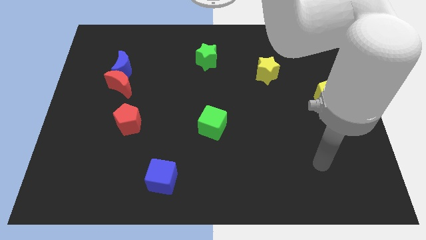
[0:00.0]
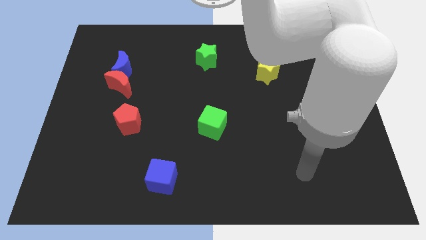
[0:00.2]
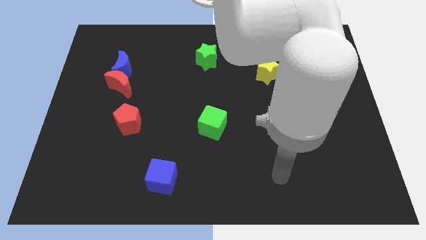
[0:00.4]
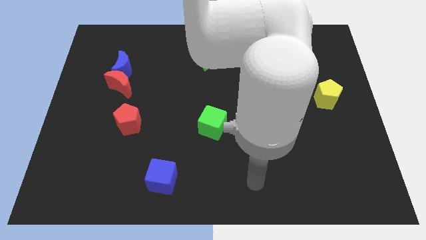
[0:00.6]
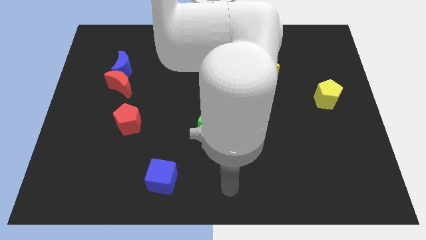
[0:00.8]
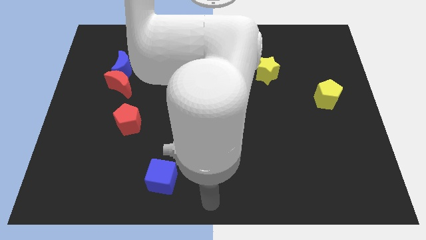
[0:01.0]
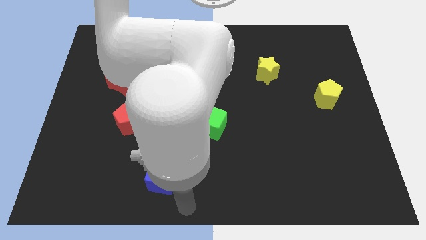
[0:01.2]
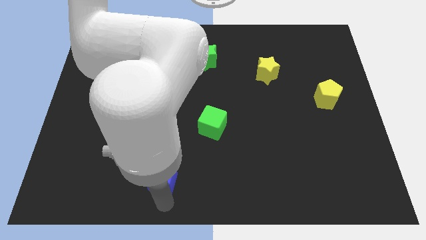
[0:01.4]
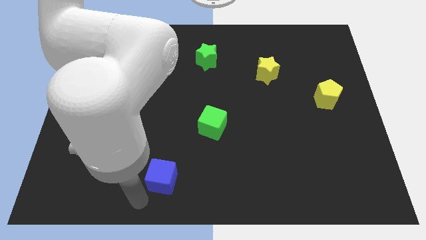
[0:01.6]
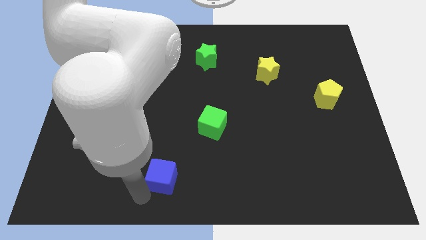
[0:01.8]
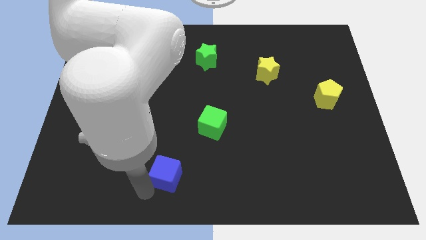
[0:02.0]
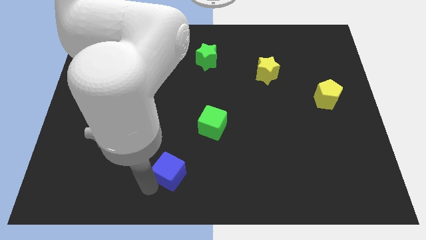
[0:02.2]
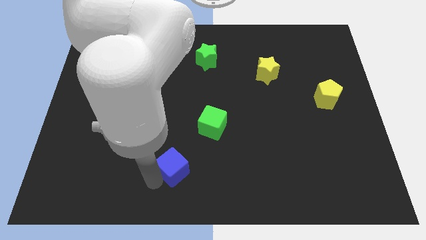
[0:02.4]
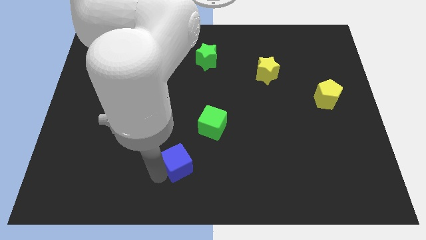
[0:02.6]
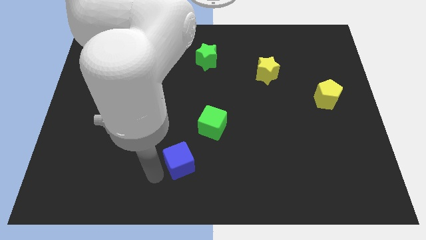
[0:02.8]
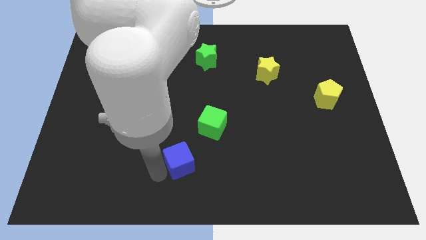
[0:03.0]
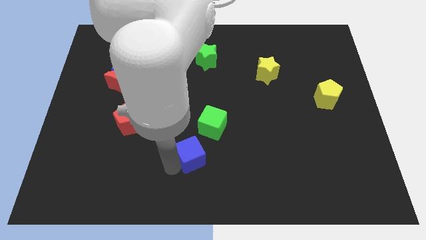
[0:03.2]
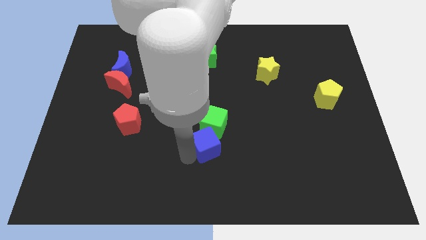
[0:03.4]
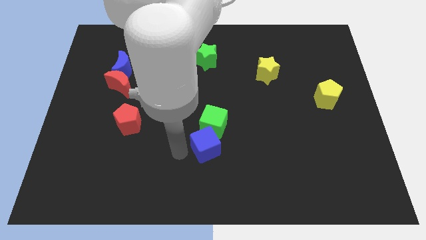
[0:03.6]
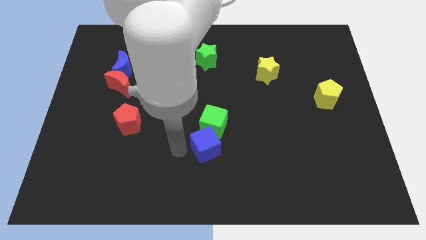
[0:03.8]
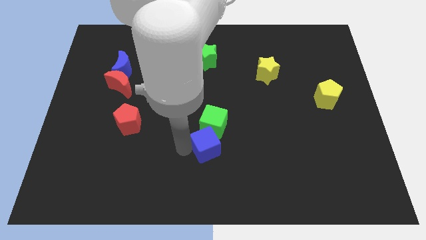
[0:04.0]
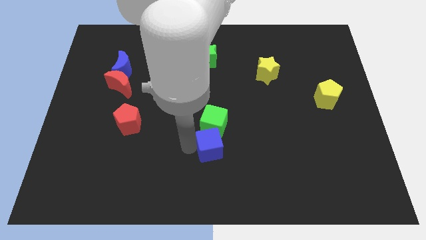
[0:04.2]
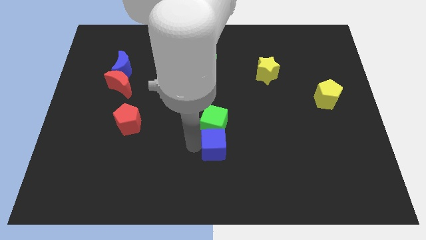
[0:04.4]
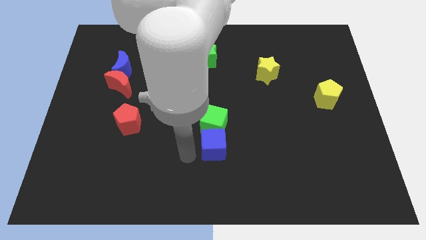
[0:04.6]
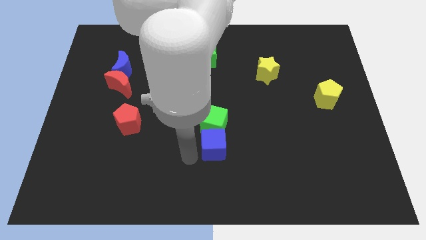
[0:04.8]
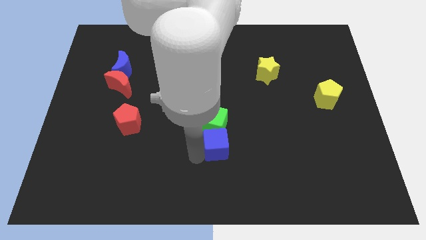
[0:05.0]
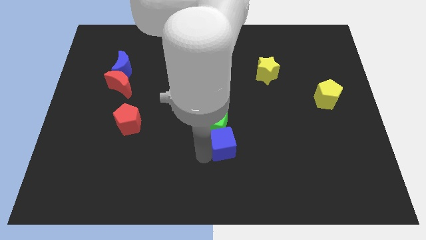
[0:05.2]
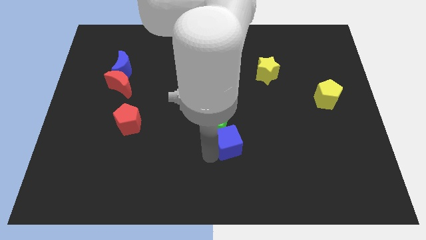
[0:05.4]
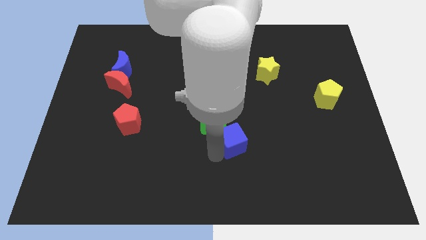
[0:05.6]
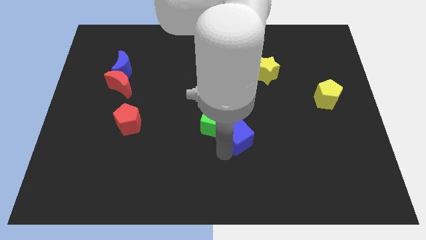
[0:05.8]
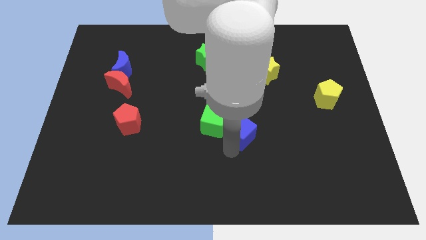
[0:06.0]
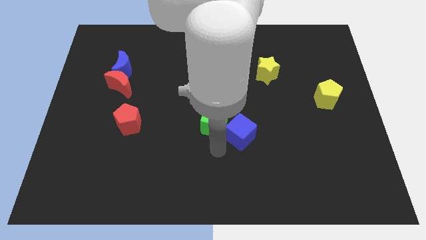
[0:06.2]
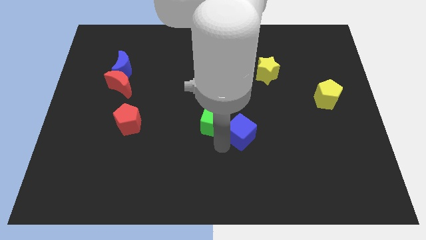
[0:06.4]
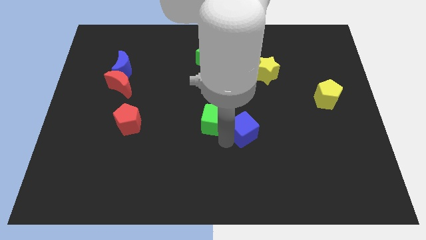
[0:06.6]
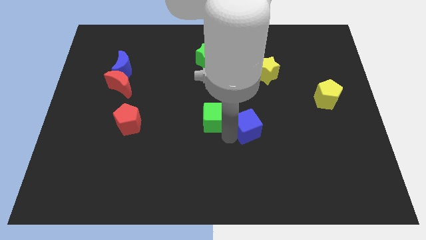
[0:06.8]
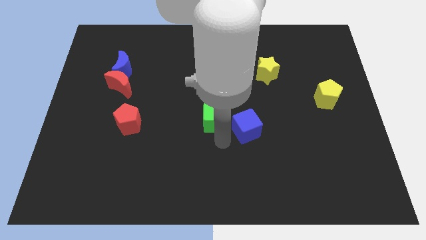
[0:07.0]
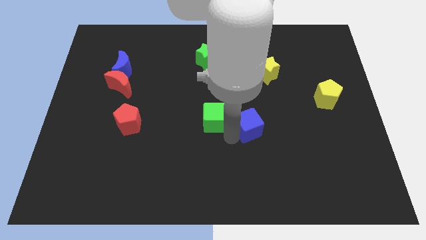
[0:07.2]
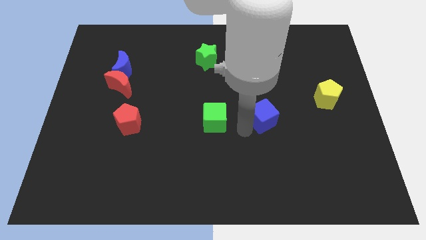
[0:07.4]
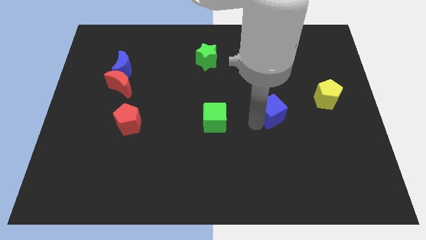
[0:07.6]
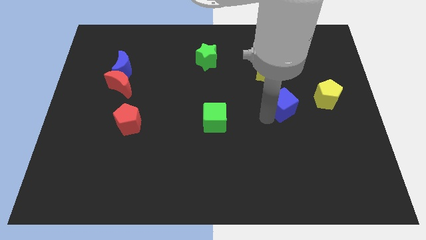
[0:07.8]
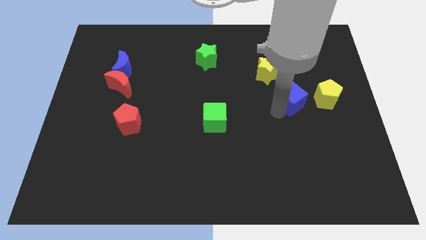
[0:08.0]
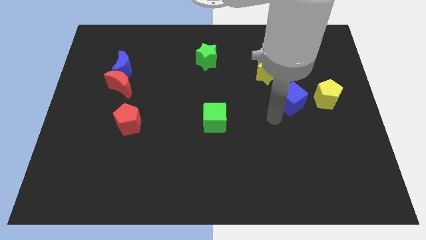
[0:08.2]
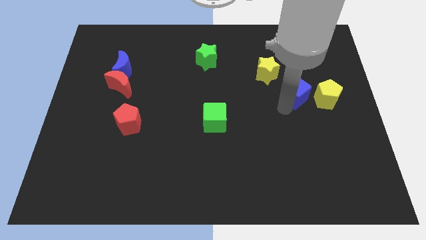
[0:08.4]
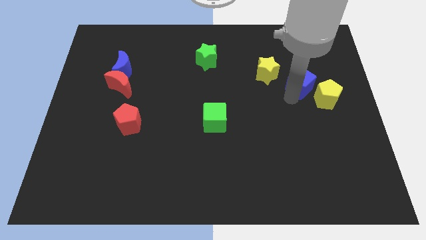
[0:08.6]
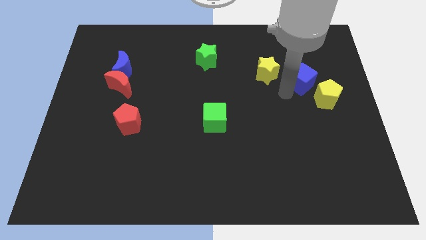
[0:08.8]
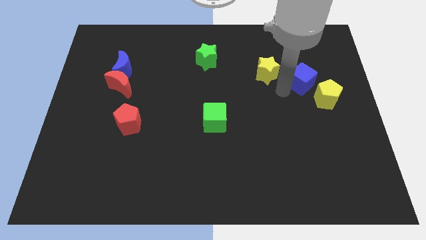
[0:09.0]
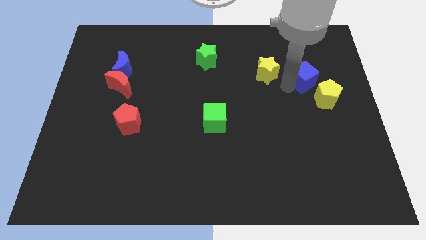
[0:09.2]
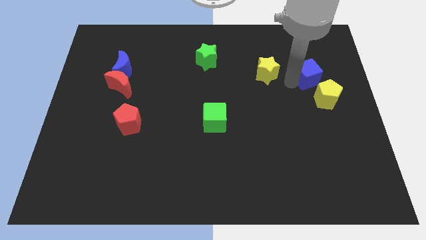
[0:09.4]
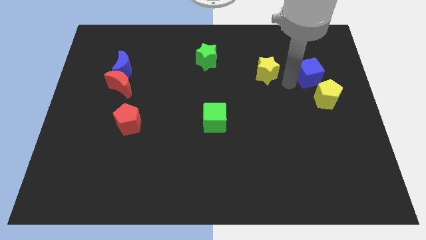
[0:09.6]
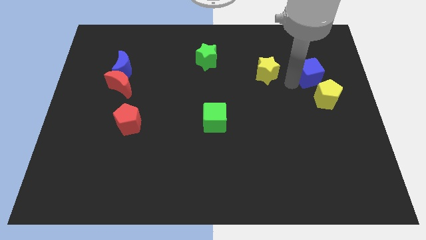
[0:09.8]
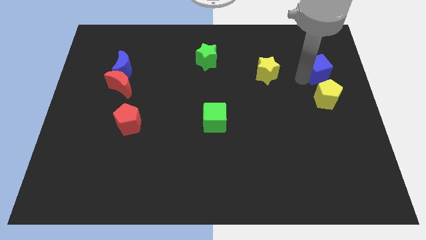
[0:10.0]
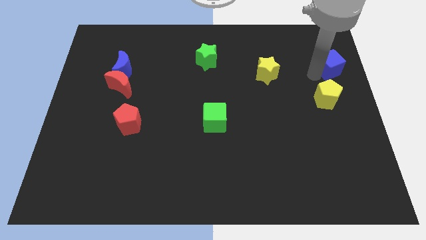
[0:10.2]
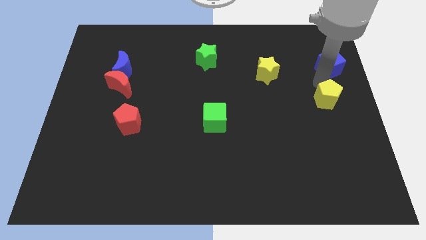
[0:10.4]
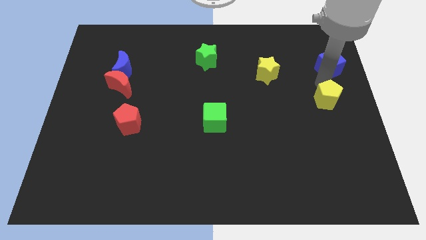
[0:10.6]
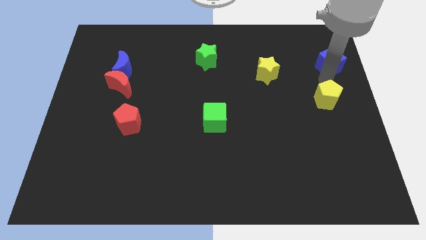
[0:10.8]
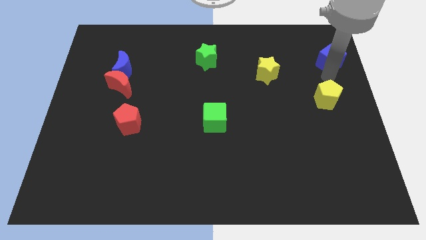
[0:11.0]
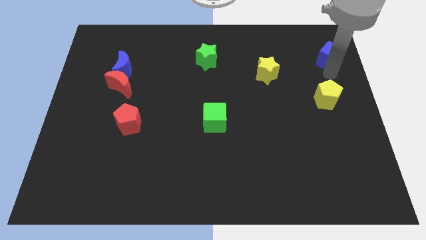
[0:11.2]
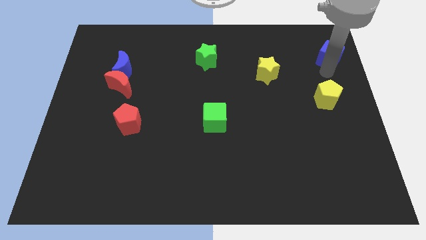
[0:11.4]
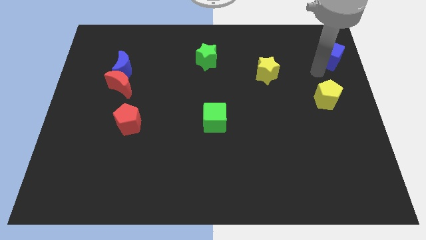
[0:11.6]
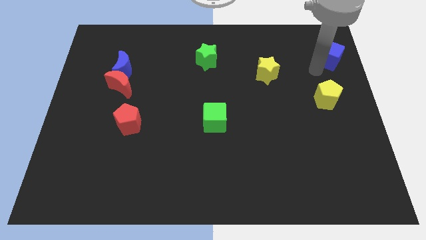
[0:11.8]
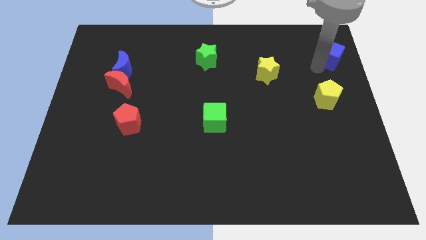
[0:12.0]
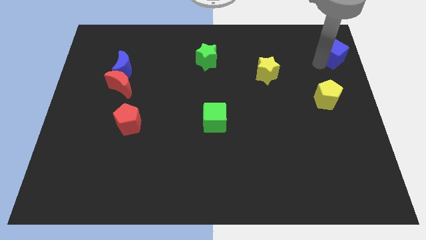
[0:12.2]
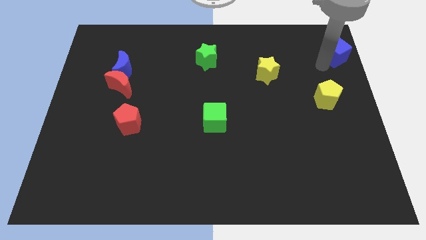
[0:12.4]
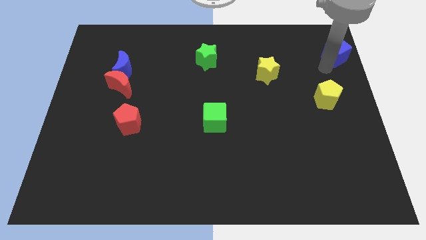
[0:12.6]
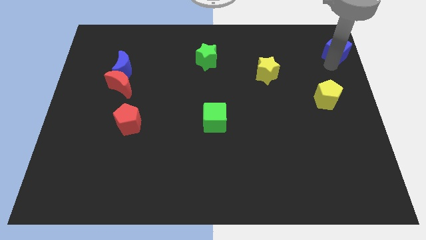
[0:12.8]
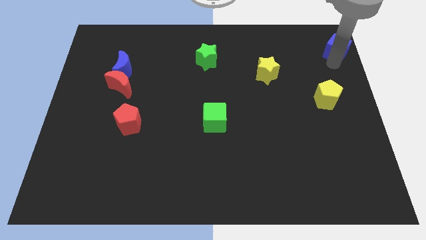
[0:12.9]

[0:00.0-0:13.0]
push the blue cube to the top right corner
